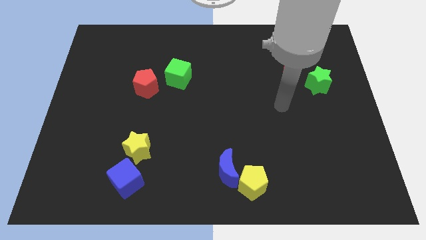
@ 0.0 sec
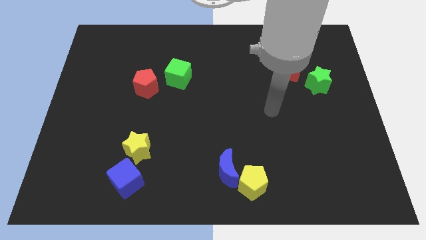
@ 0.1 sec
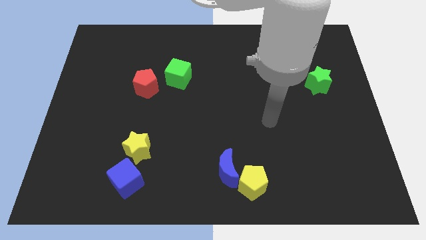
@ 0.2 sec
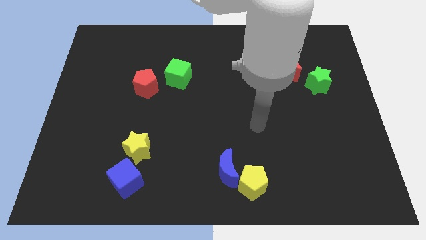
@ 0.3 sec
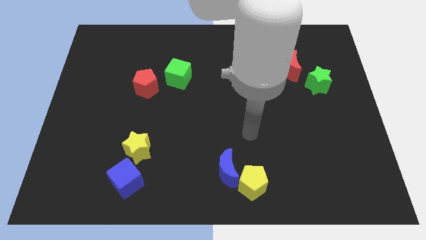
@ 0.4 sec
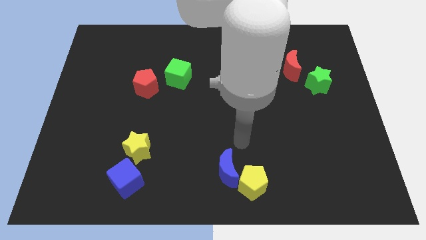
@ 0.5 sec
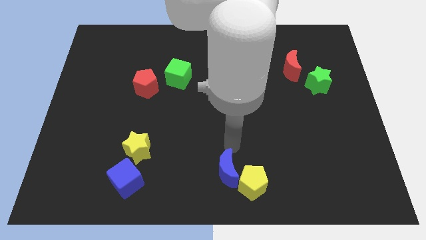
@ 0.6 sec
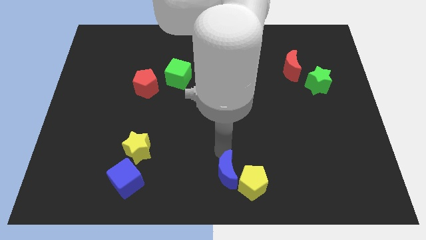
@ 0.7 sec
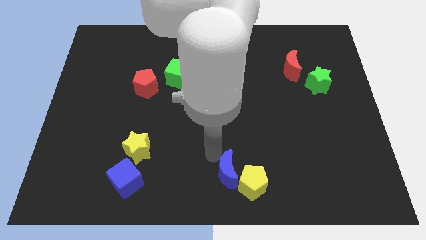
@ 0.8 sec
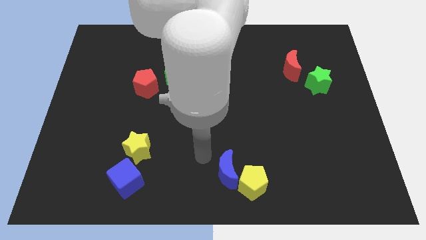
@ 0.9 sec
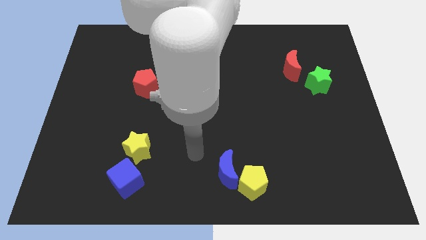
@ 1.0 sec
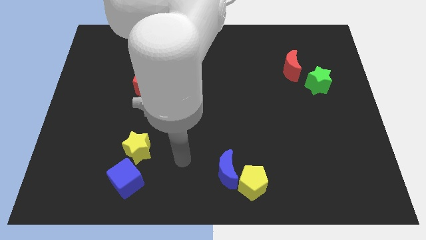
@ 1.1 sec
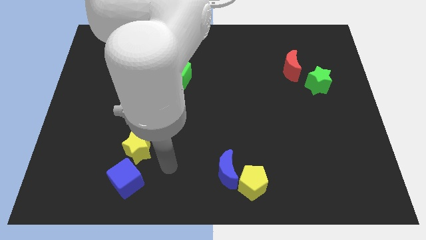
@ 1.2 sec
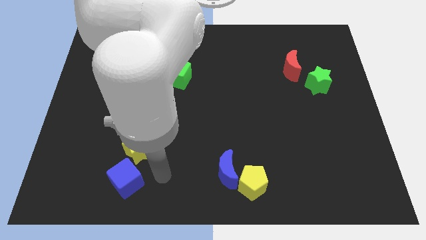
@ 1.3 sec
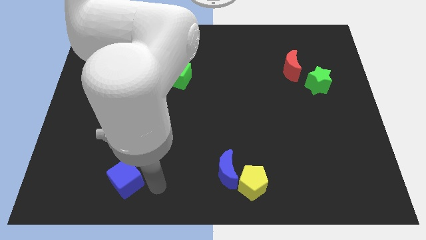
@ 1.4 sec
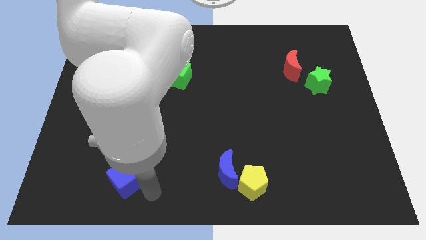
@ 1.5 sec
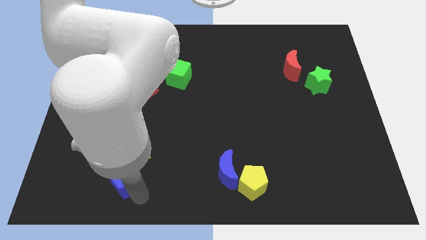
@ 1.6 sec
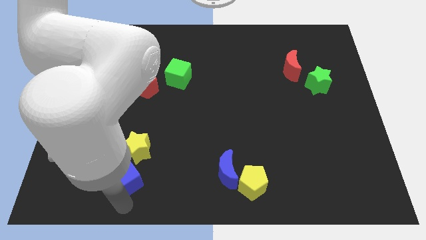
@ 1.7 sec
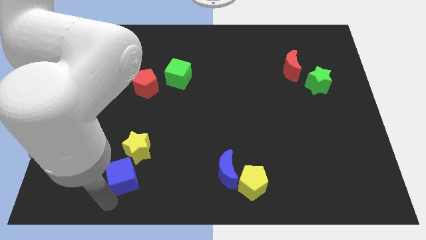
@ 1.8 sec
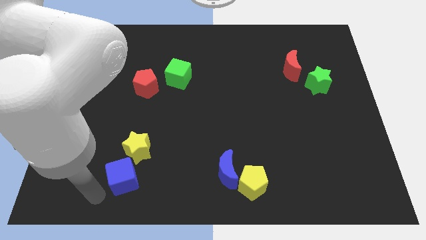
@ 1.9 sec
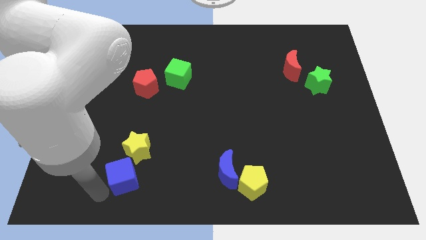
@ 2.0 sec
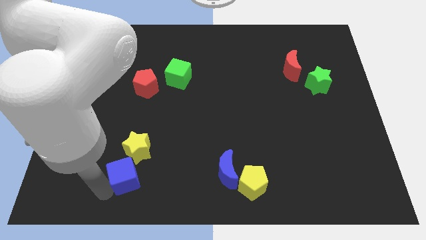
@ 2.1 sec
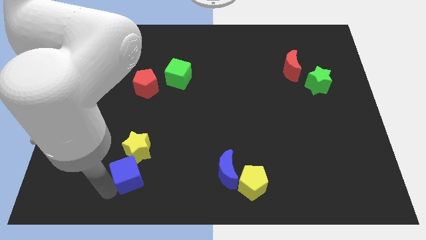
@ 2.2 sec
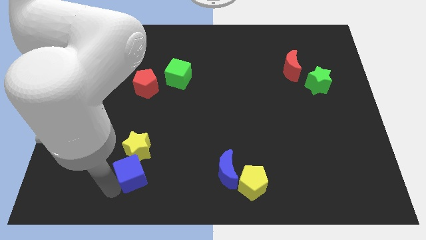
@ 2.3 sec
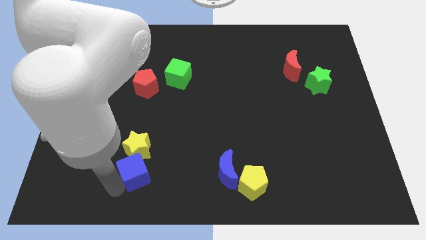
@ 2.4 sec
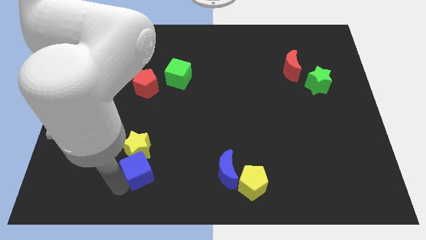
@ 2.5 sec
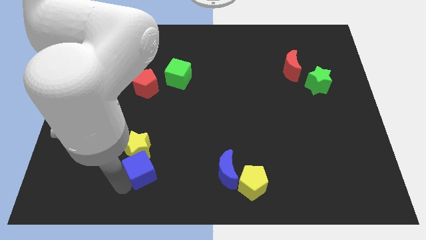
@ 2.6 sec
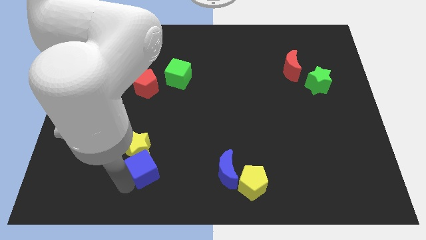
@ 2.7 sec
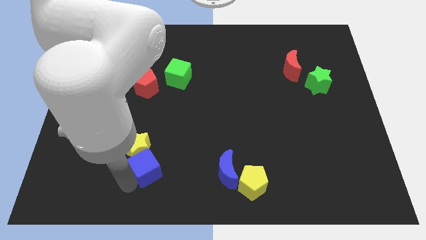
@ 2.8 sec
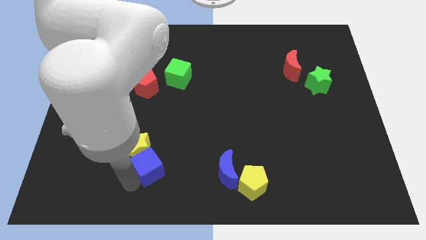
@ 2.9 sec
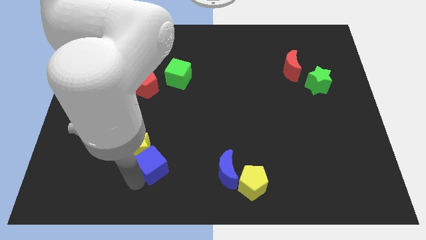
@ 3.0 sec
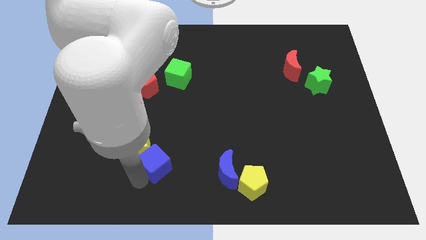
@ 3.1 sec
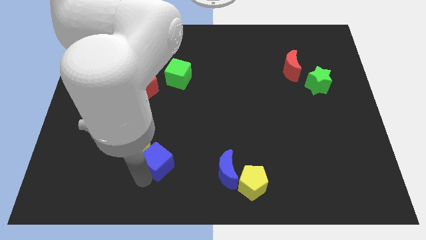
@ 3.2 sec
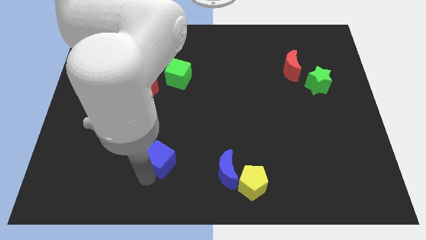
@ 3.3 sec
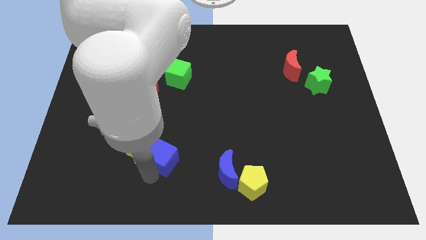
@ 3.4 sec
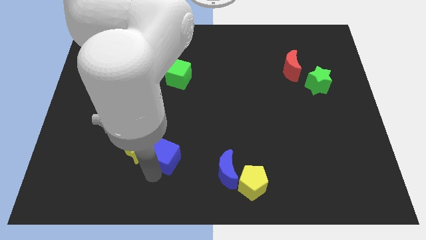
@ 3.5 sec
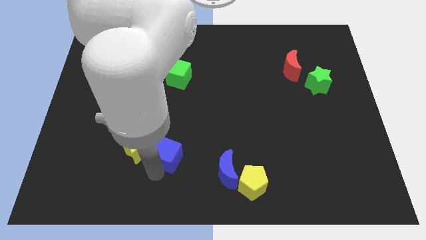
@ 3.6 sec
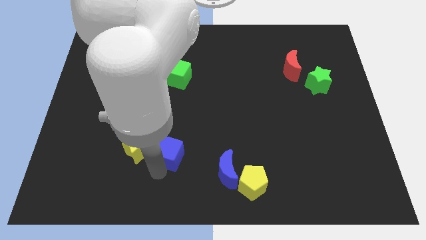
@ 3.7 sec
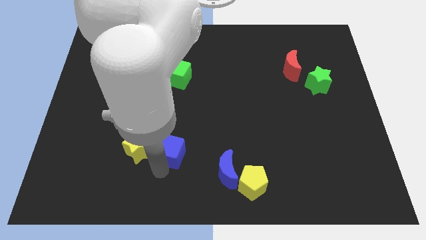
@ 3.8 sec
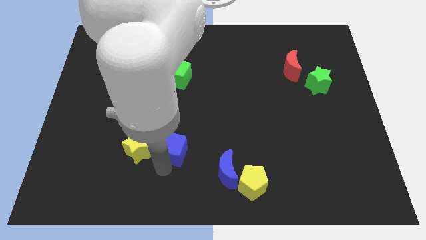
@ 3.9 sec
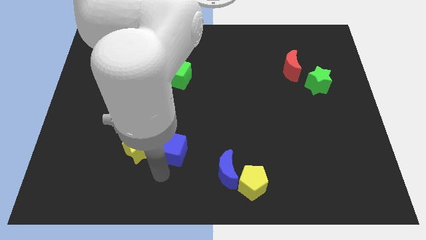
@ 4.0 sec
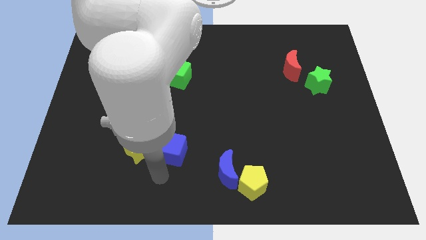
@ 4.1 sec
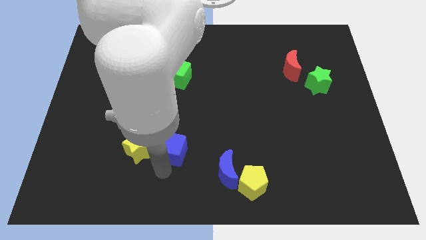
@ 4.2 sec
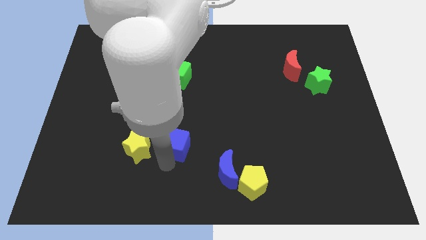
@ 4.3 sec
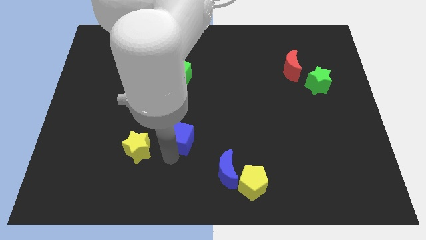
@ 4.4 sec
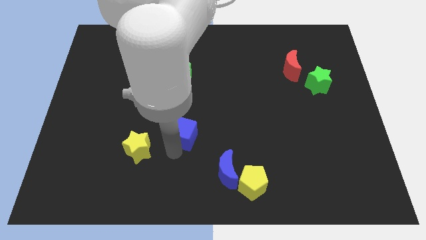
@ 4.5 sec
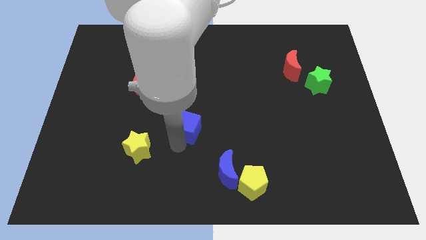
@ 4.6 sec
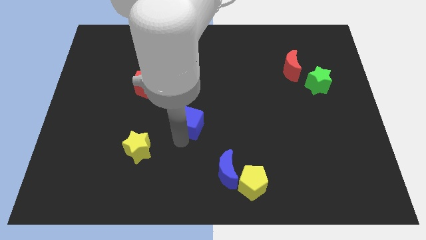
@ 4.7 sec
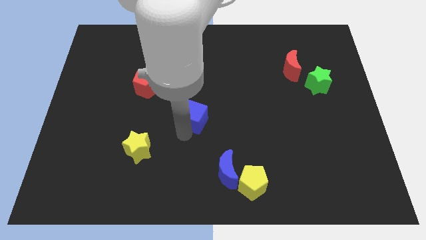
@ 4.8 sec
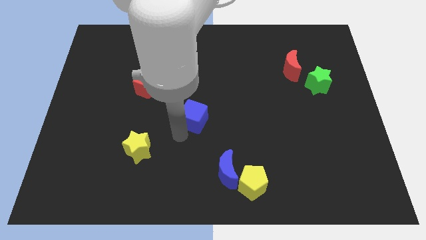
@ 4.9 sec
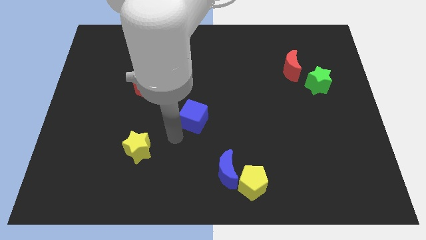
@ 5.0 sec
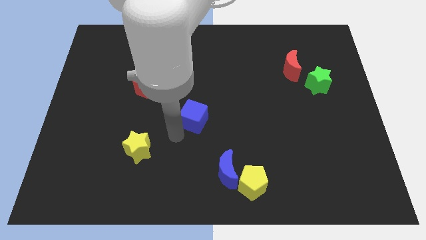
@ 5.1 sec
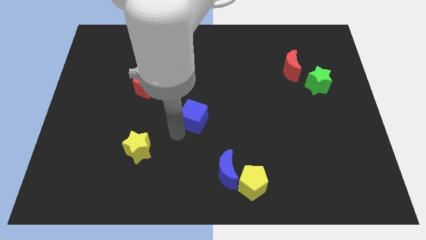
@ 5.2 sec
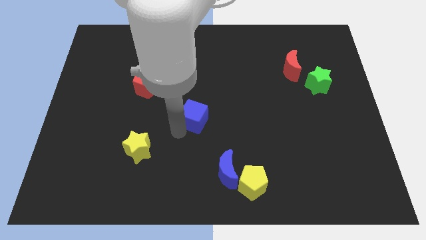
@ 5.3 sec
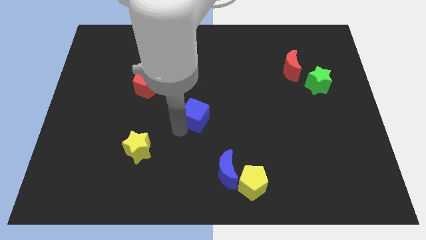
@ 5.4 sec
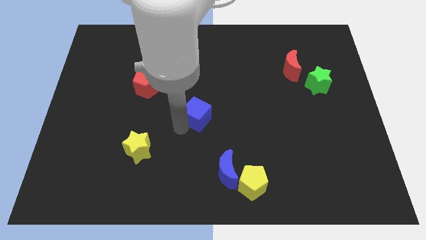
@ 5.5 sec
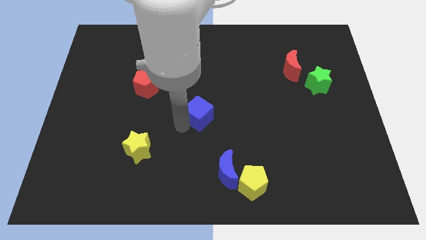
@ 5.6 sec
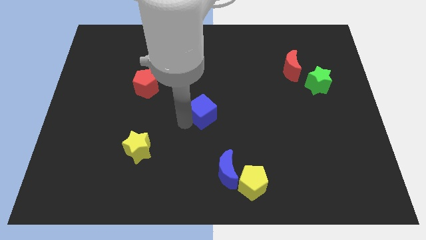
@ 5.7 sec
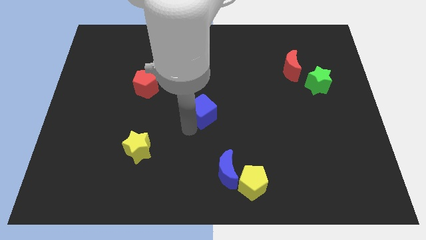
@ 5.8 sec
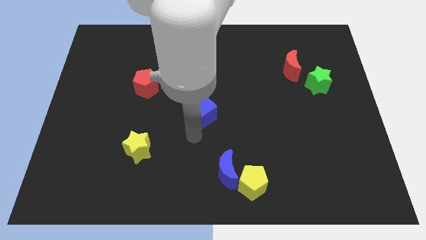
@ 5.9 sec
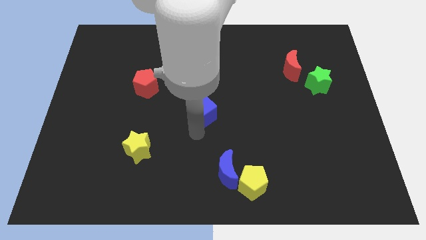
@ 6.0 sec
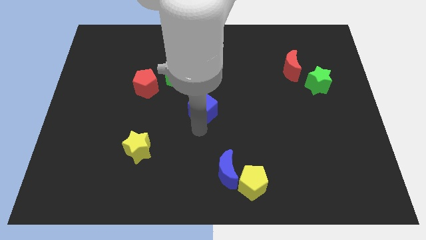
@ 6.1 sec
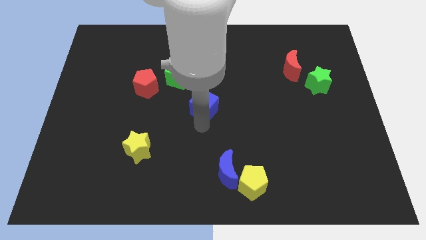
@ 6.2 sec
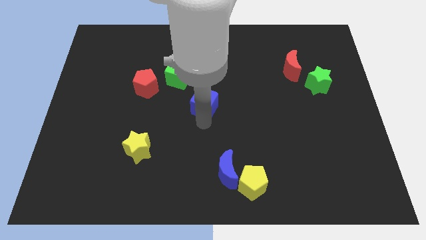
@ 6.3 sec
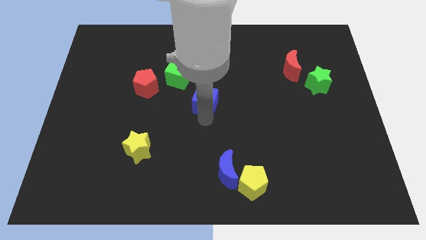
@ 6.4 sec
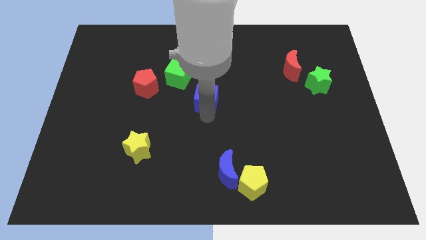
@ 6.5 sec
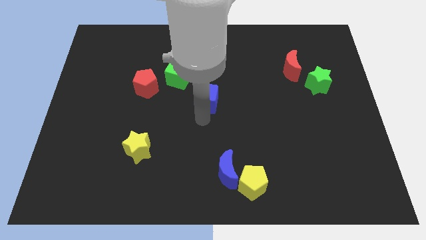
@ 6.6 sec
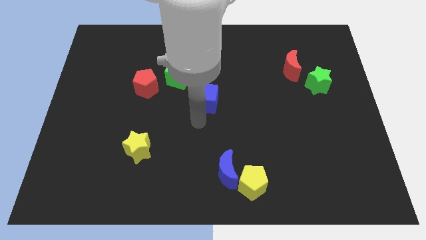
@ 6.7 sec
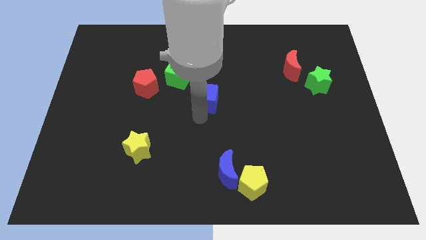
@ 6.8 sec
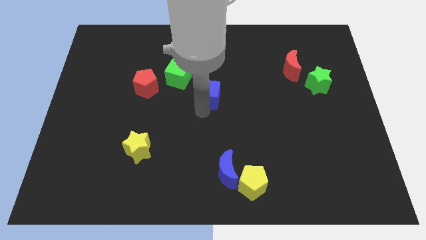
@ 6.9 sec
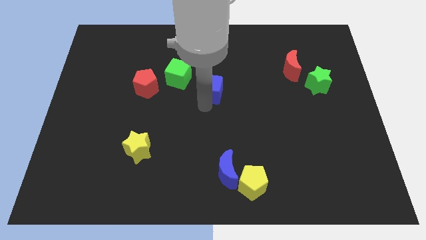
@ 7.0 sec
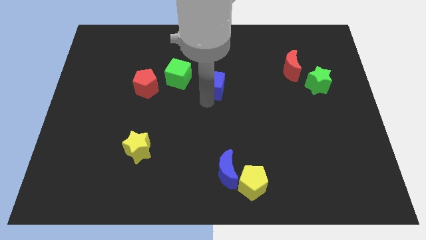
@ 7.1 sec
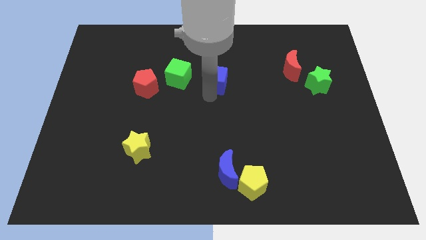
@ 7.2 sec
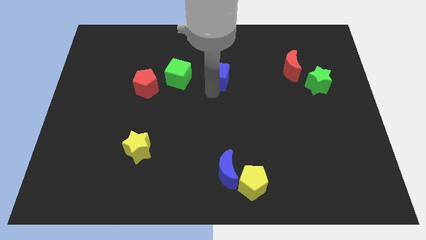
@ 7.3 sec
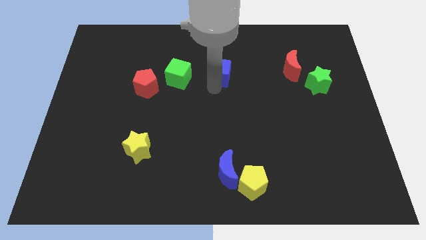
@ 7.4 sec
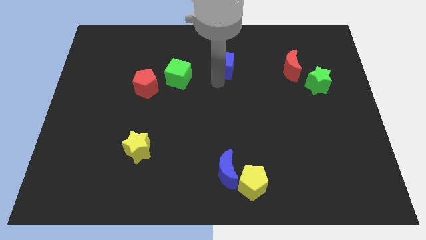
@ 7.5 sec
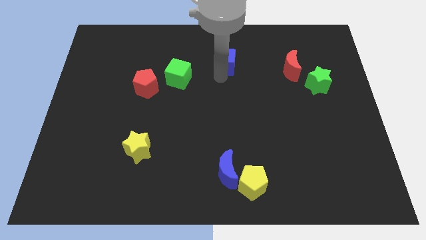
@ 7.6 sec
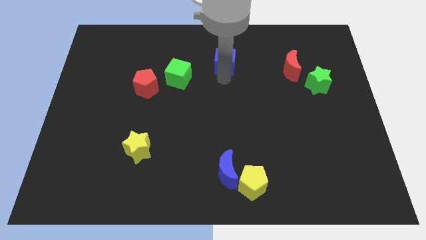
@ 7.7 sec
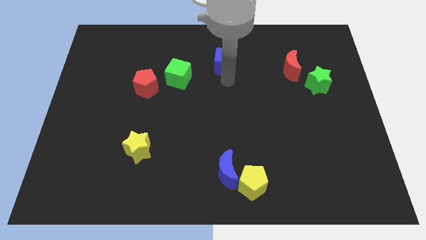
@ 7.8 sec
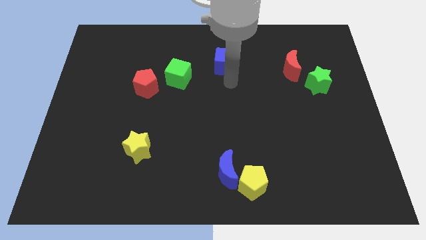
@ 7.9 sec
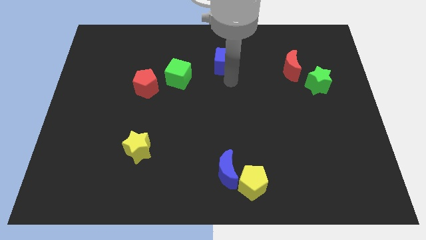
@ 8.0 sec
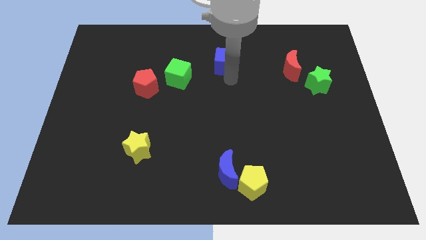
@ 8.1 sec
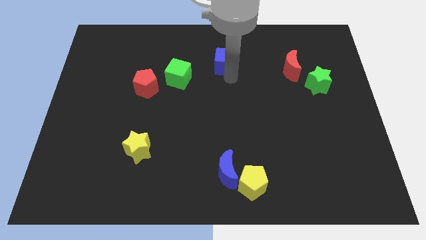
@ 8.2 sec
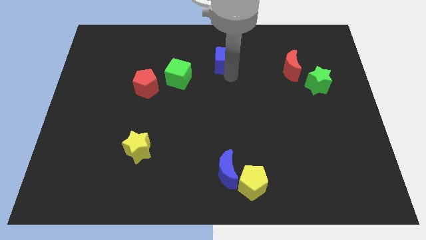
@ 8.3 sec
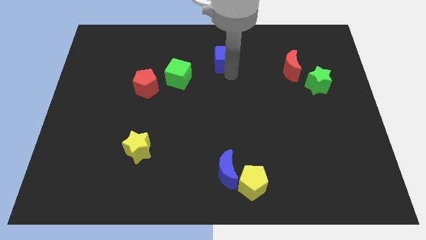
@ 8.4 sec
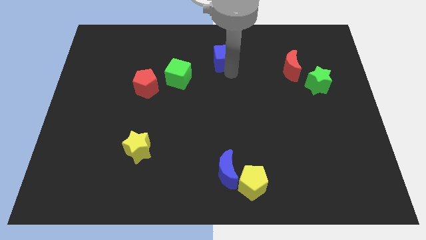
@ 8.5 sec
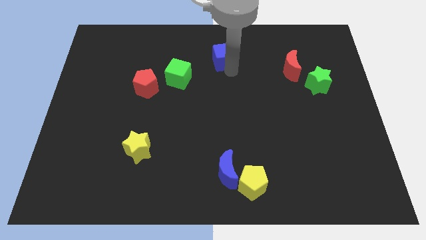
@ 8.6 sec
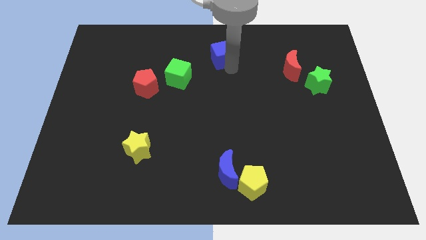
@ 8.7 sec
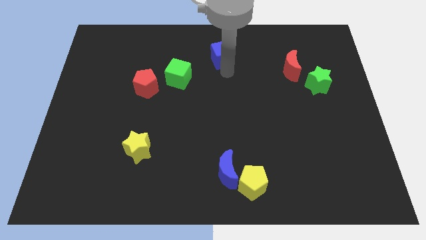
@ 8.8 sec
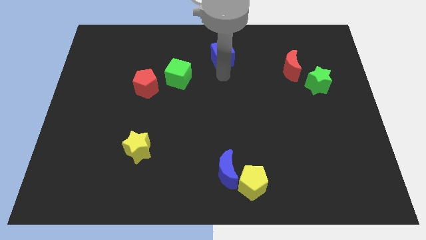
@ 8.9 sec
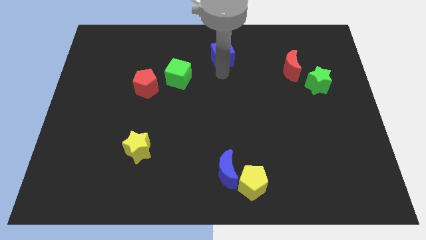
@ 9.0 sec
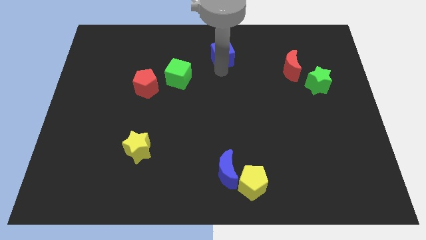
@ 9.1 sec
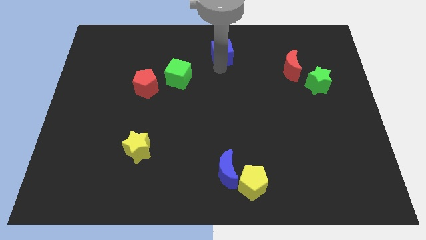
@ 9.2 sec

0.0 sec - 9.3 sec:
move the blue cube to the towards your base
